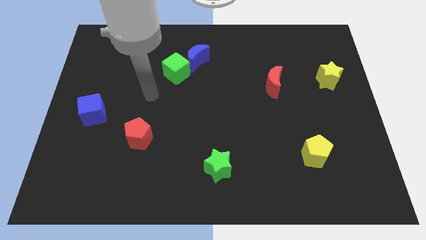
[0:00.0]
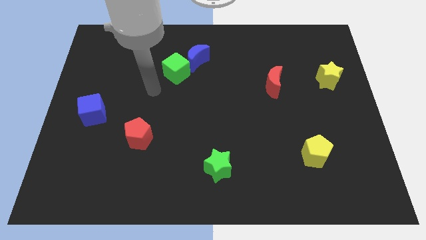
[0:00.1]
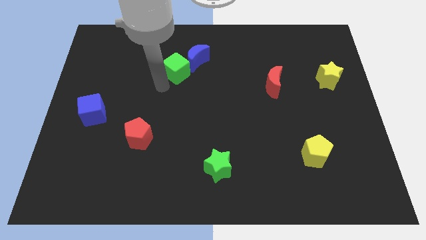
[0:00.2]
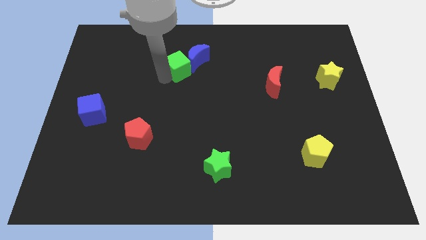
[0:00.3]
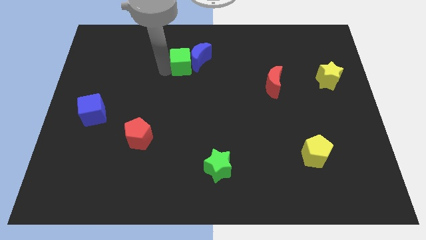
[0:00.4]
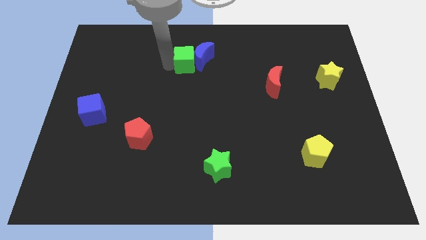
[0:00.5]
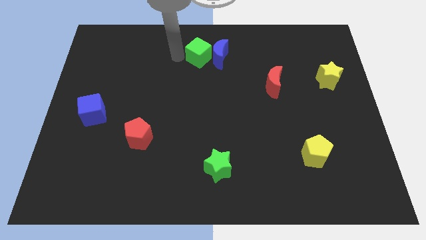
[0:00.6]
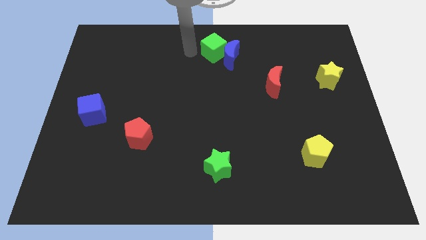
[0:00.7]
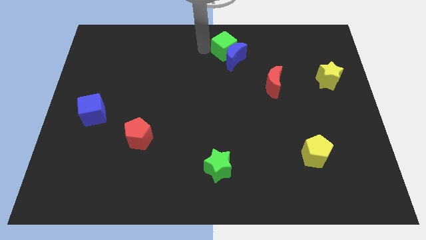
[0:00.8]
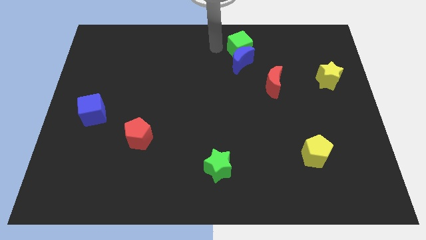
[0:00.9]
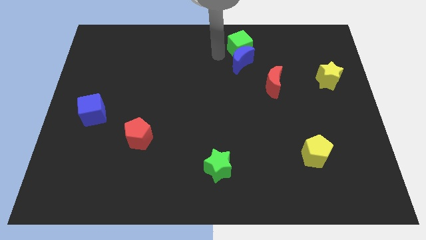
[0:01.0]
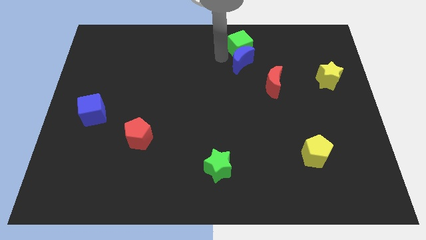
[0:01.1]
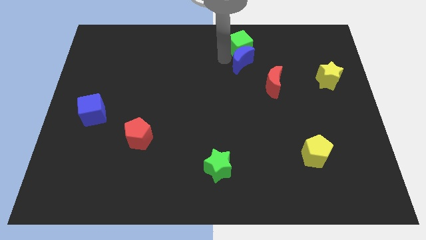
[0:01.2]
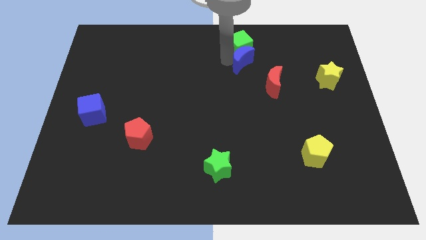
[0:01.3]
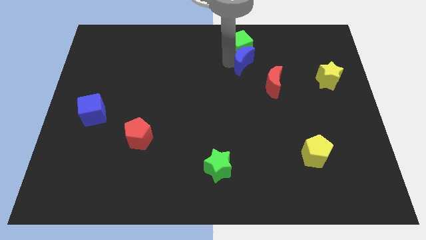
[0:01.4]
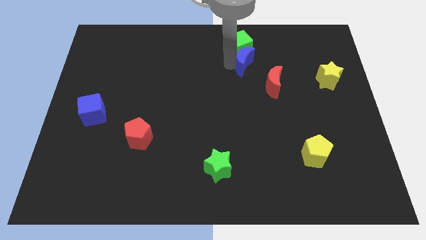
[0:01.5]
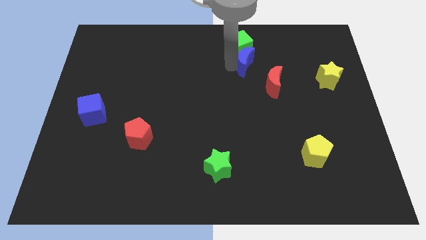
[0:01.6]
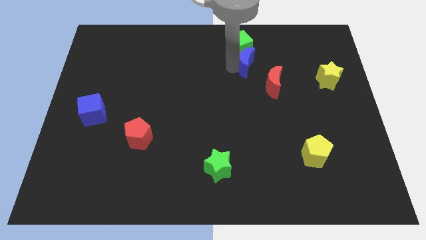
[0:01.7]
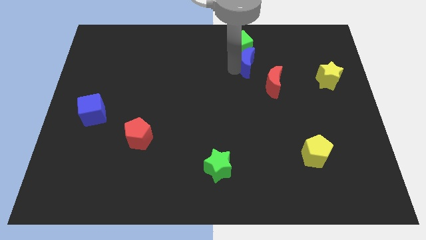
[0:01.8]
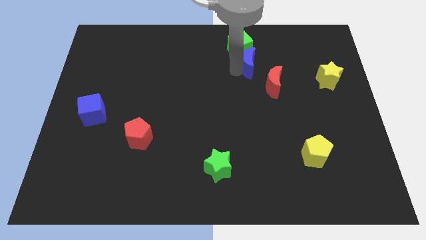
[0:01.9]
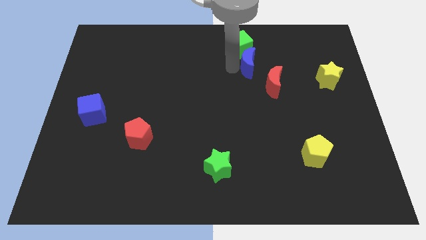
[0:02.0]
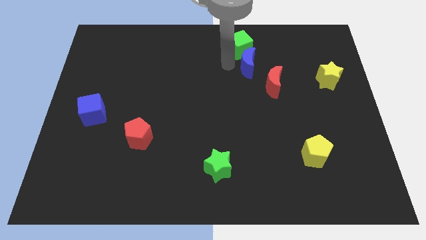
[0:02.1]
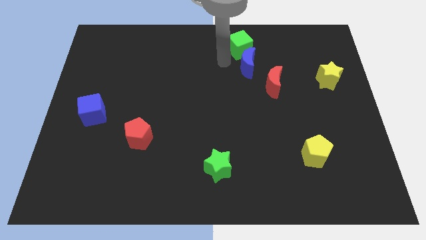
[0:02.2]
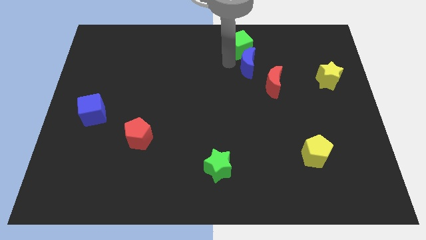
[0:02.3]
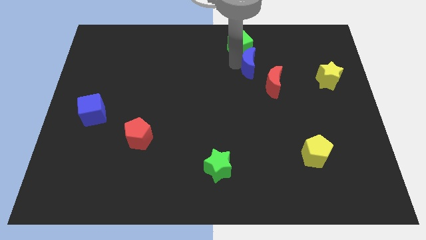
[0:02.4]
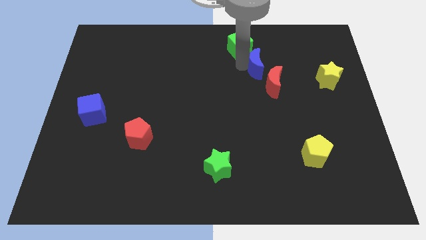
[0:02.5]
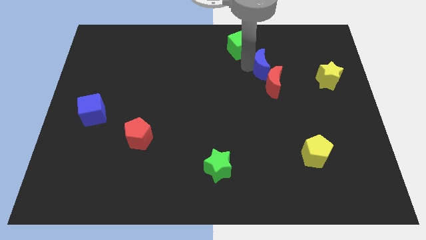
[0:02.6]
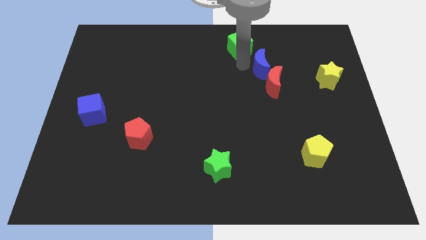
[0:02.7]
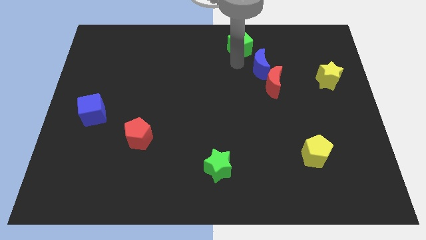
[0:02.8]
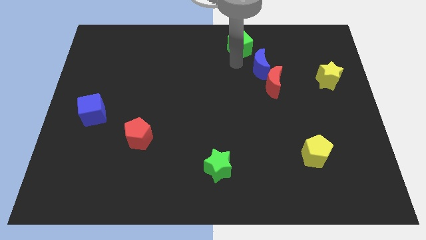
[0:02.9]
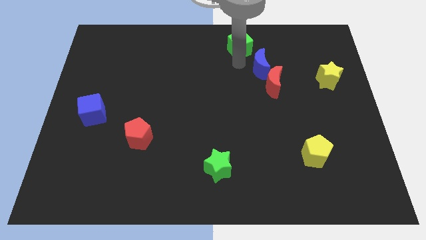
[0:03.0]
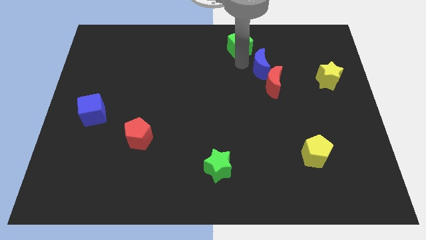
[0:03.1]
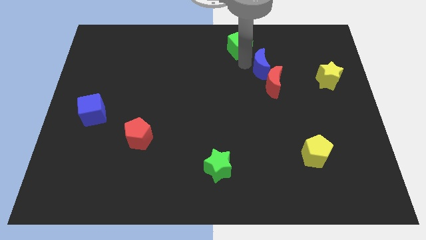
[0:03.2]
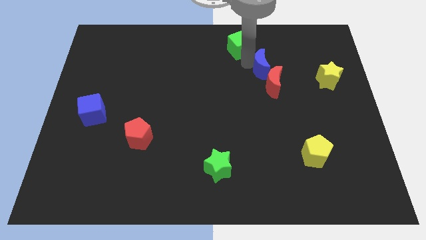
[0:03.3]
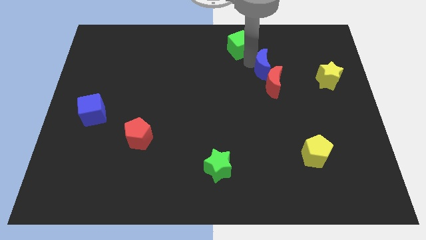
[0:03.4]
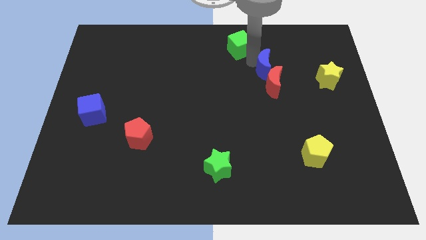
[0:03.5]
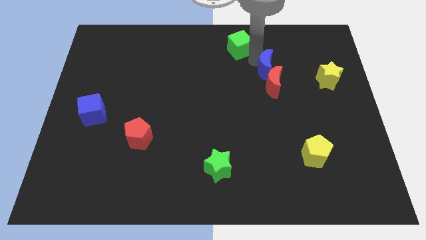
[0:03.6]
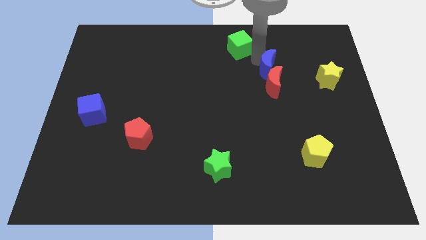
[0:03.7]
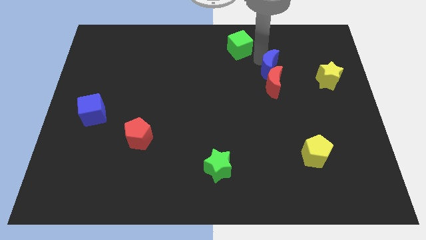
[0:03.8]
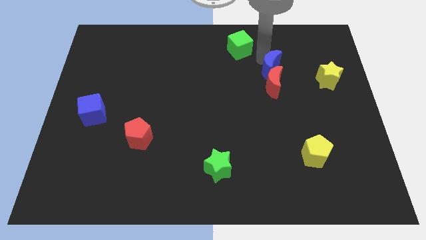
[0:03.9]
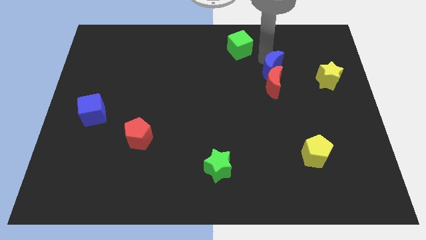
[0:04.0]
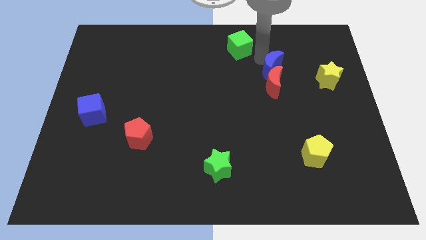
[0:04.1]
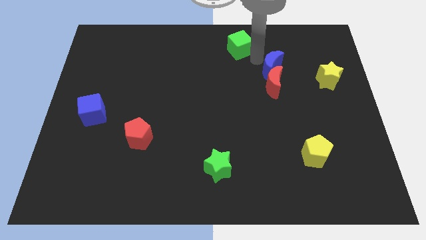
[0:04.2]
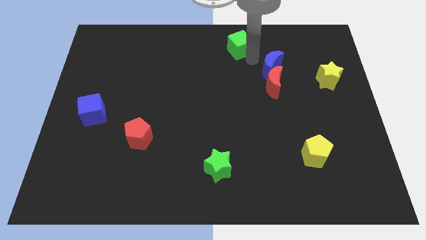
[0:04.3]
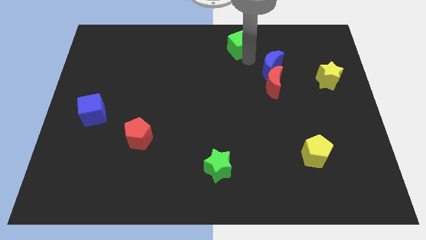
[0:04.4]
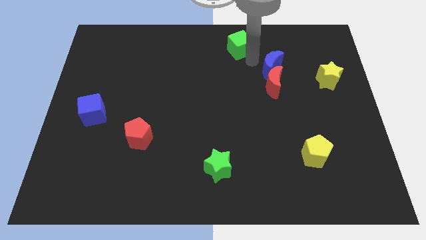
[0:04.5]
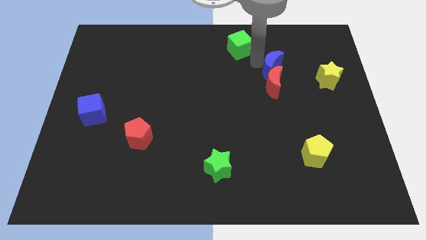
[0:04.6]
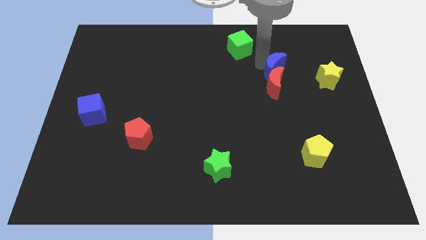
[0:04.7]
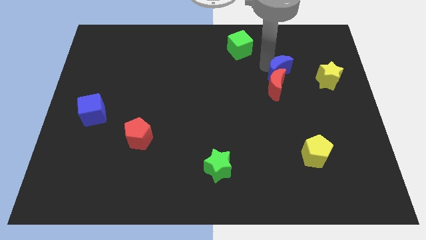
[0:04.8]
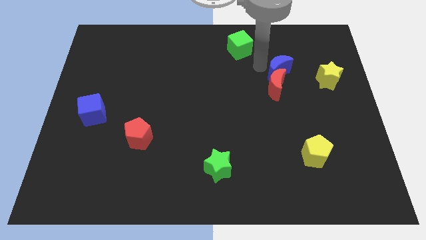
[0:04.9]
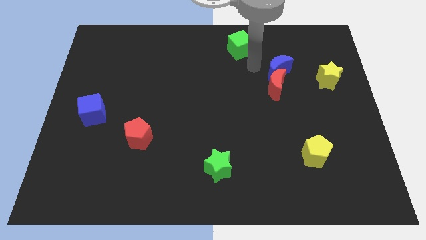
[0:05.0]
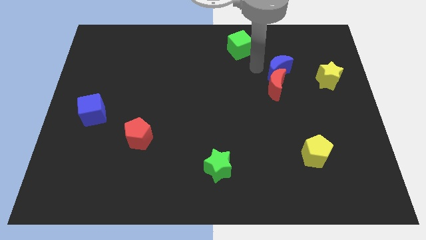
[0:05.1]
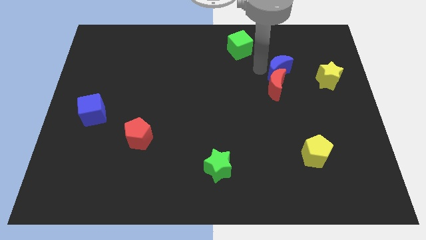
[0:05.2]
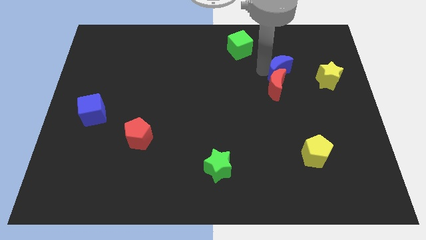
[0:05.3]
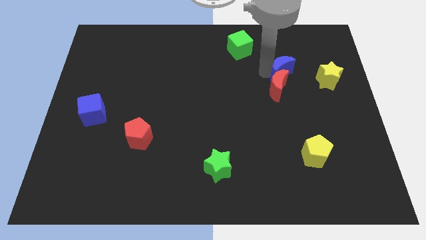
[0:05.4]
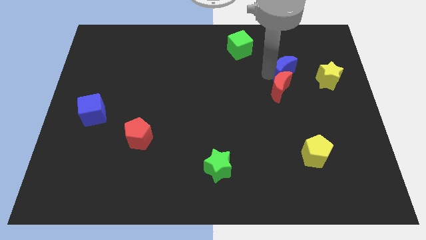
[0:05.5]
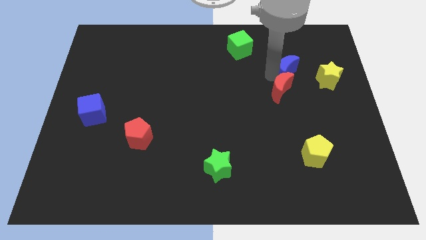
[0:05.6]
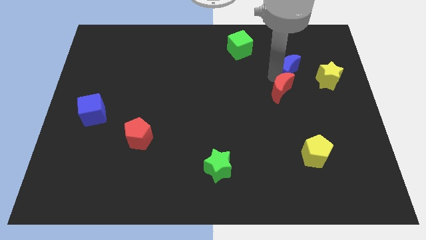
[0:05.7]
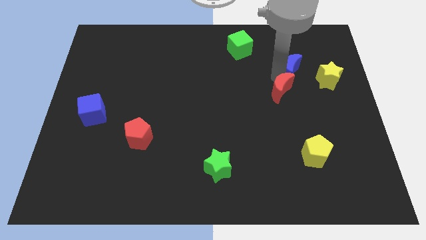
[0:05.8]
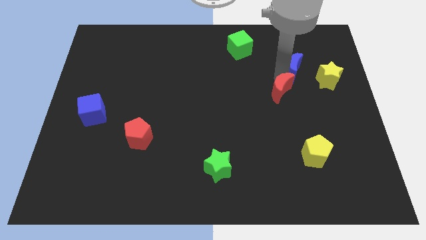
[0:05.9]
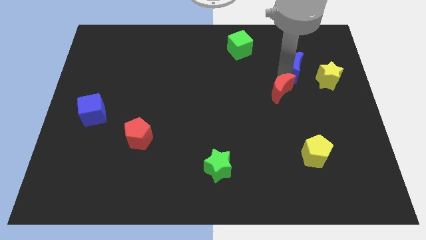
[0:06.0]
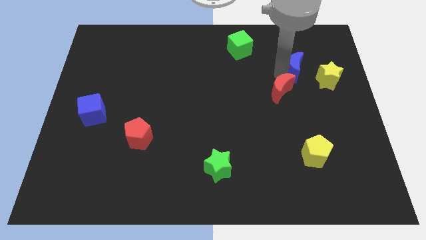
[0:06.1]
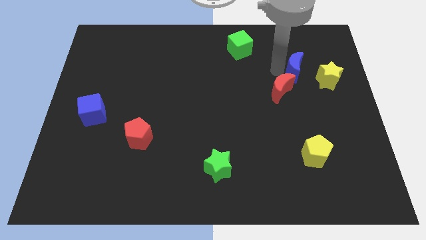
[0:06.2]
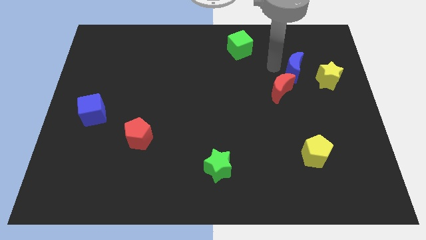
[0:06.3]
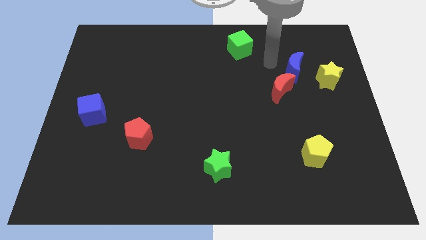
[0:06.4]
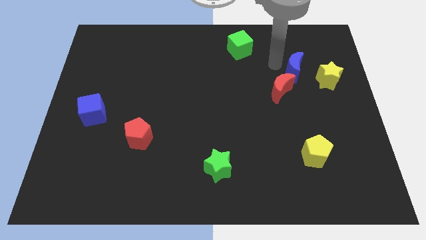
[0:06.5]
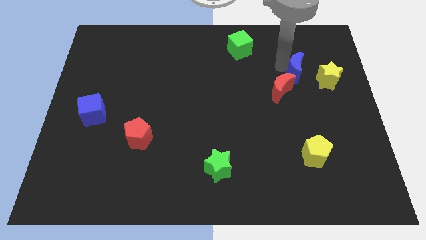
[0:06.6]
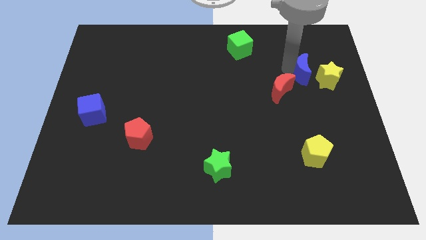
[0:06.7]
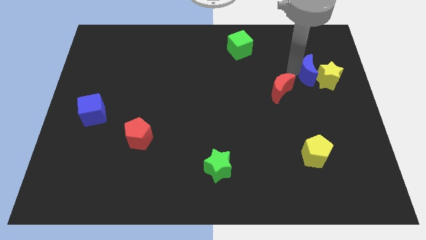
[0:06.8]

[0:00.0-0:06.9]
put the blue moon close to the yellow star

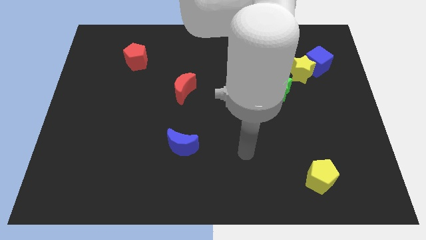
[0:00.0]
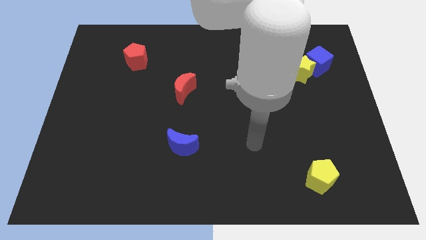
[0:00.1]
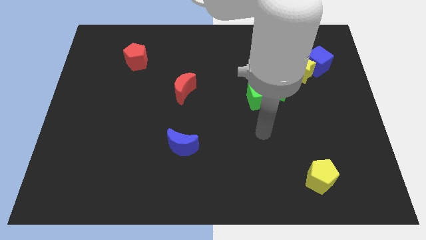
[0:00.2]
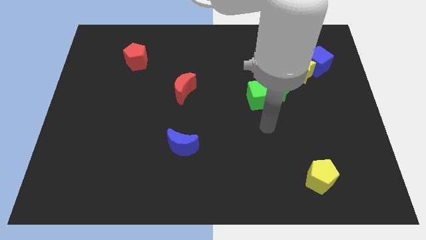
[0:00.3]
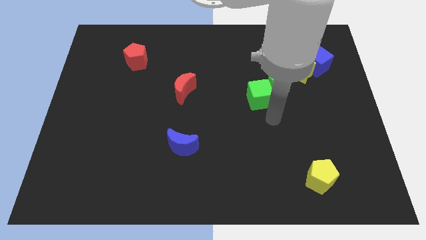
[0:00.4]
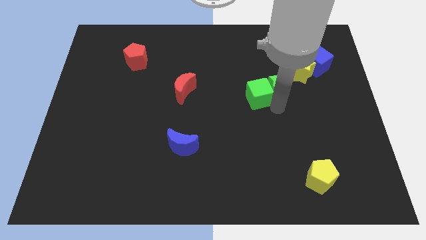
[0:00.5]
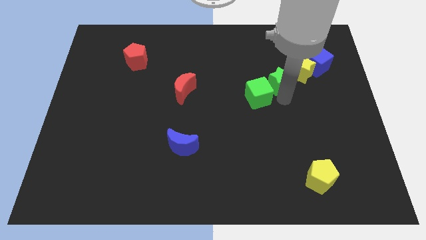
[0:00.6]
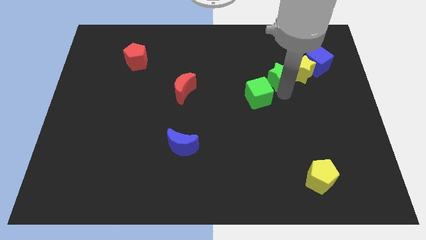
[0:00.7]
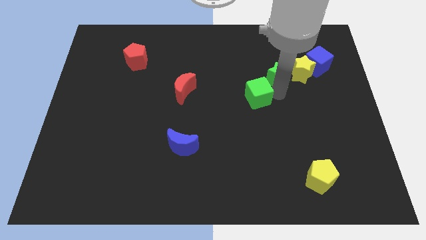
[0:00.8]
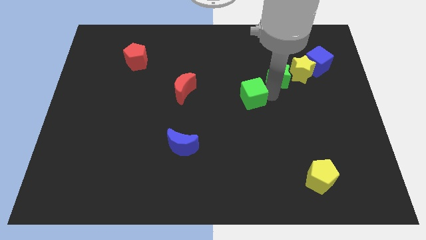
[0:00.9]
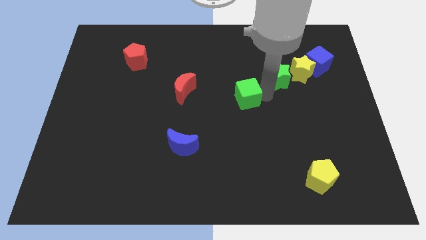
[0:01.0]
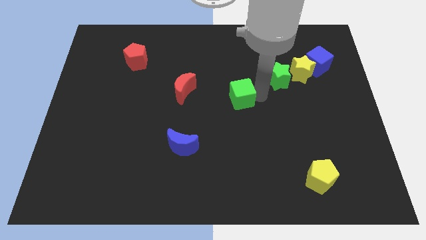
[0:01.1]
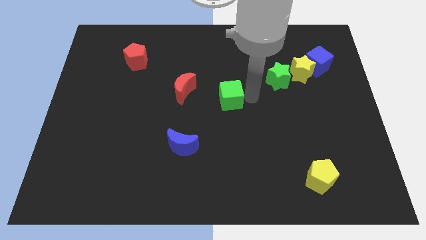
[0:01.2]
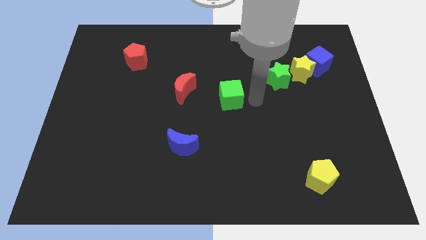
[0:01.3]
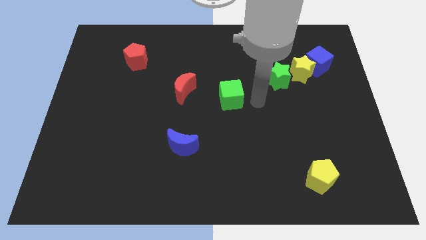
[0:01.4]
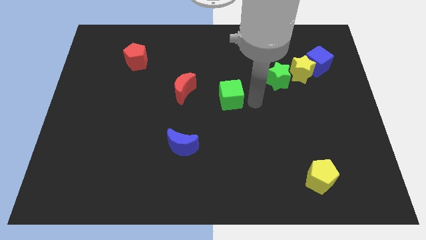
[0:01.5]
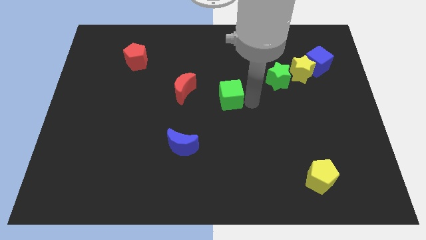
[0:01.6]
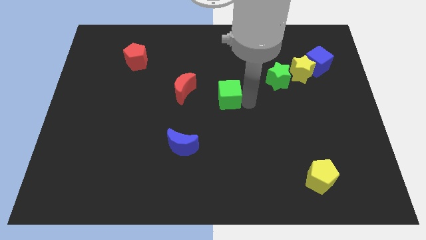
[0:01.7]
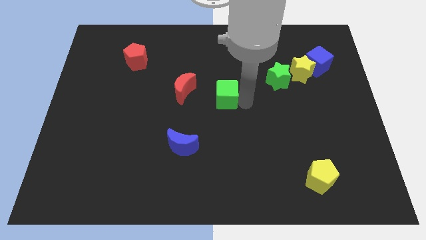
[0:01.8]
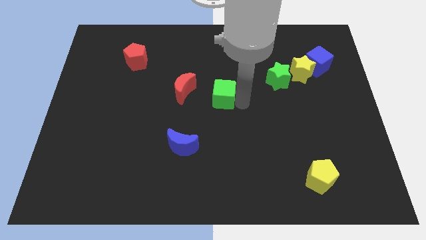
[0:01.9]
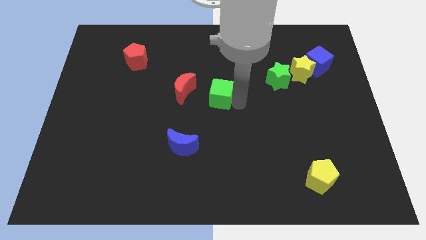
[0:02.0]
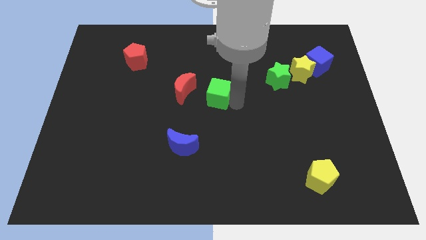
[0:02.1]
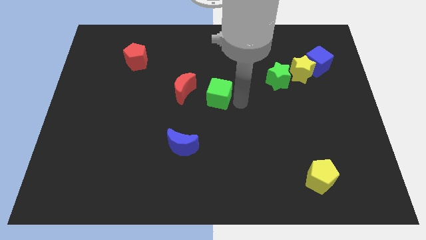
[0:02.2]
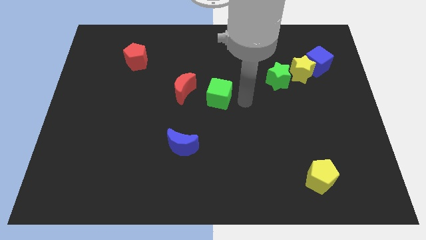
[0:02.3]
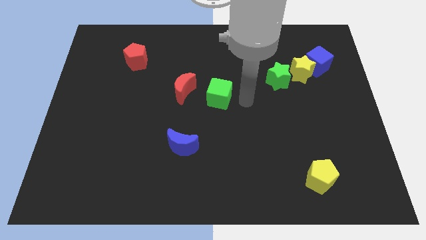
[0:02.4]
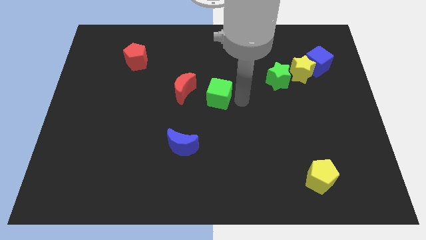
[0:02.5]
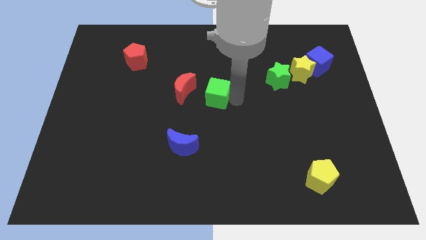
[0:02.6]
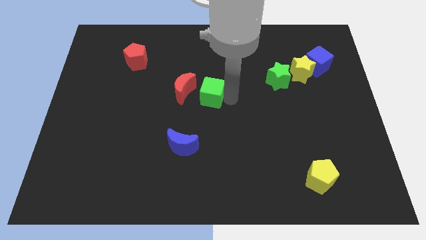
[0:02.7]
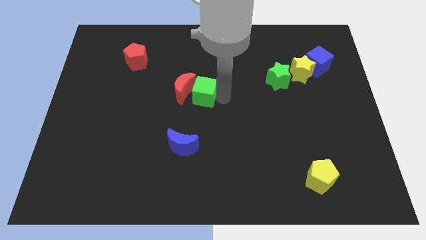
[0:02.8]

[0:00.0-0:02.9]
slide the green cube close to the red moon
